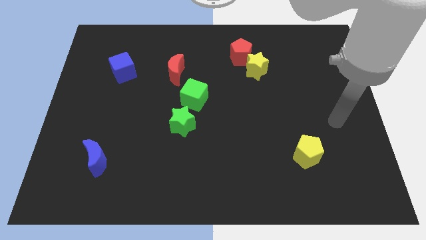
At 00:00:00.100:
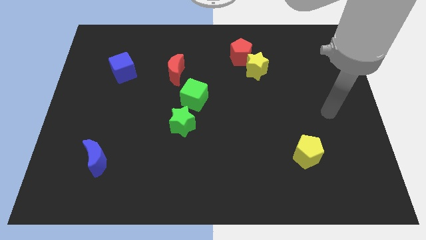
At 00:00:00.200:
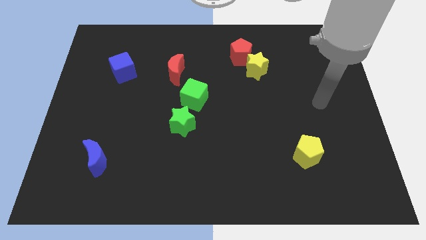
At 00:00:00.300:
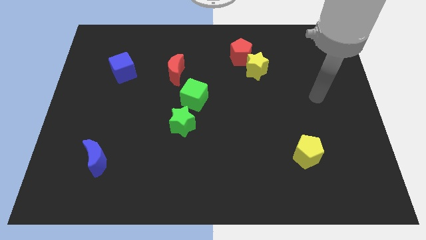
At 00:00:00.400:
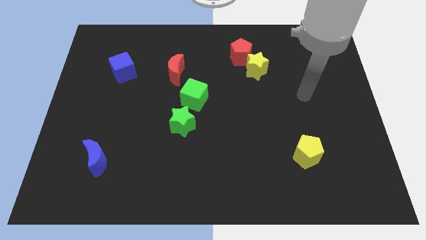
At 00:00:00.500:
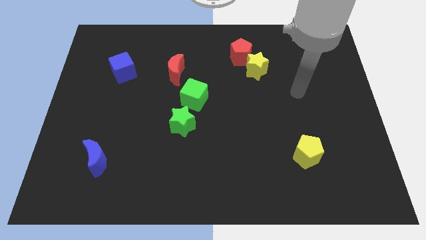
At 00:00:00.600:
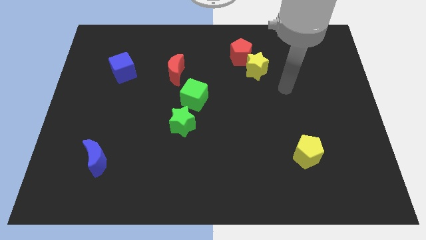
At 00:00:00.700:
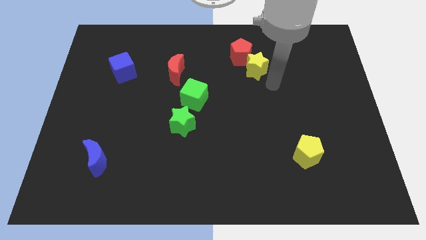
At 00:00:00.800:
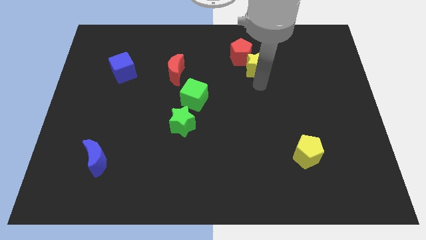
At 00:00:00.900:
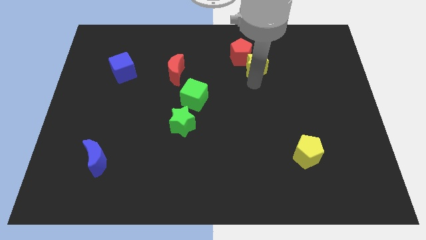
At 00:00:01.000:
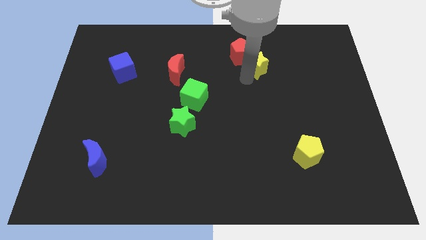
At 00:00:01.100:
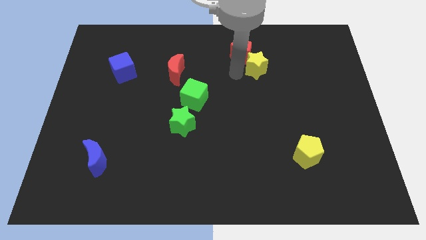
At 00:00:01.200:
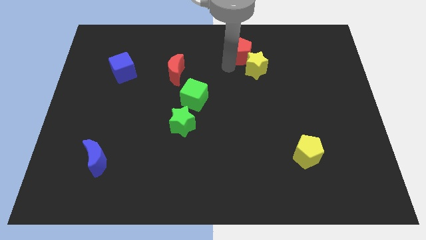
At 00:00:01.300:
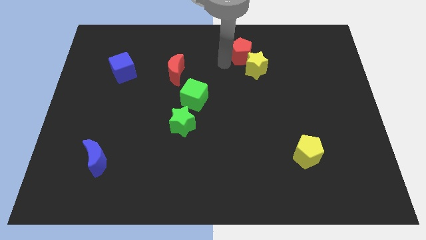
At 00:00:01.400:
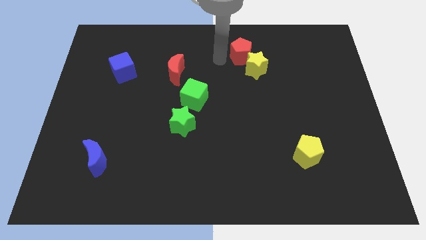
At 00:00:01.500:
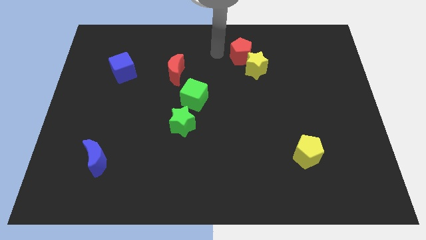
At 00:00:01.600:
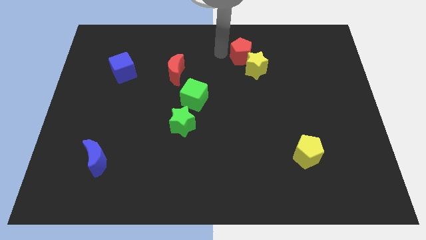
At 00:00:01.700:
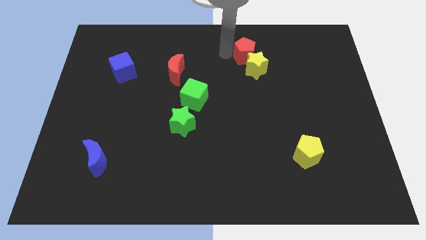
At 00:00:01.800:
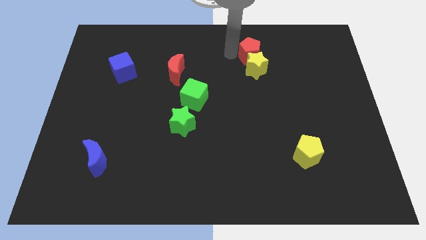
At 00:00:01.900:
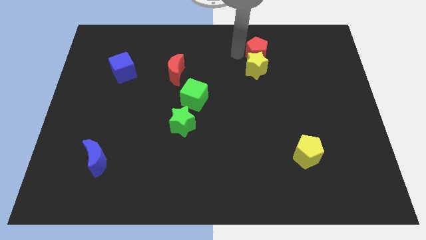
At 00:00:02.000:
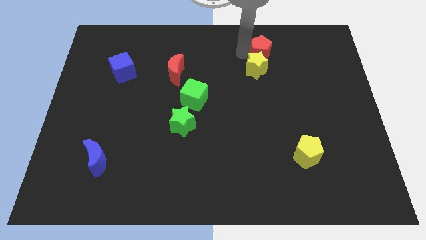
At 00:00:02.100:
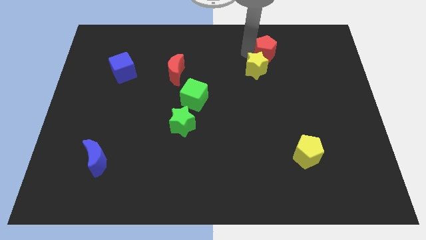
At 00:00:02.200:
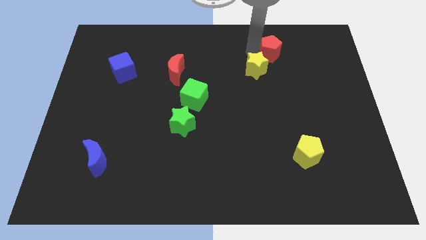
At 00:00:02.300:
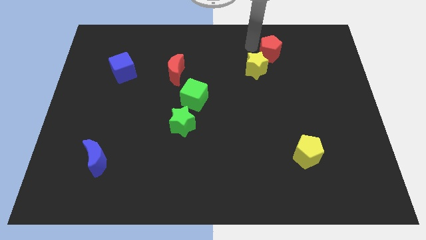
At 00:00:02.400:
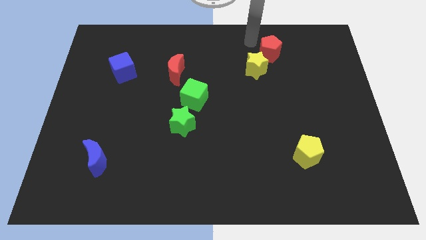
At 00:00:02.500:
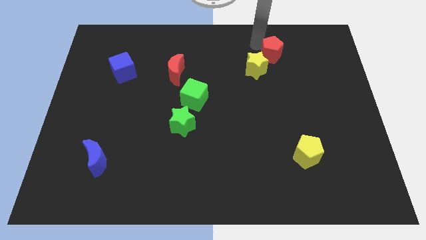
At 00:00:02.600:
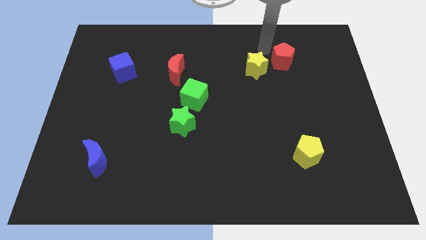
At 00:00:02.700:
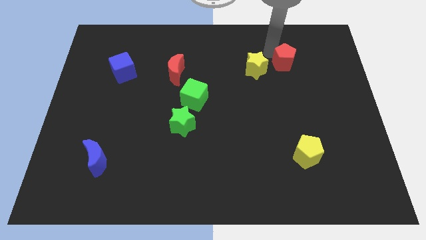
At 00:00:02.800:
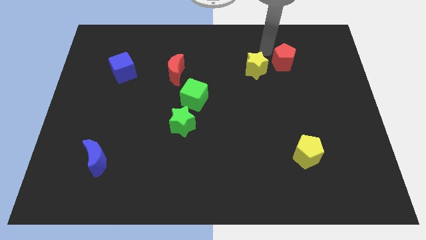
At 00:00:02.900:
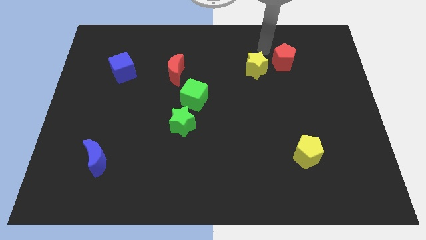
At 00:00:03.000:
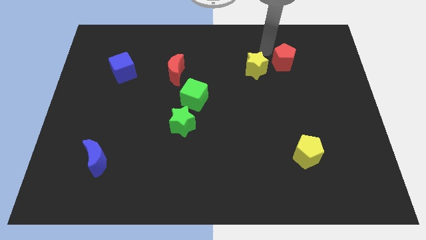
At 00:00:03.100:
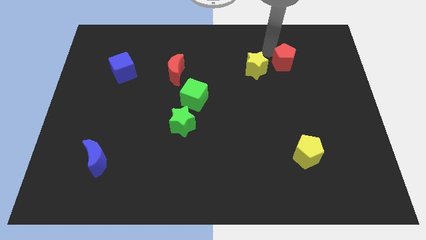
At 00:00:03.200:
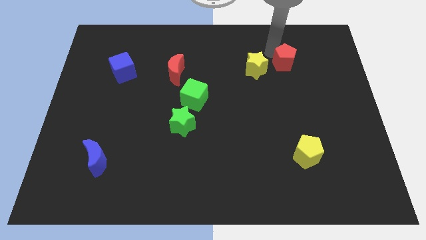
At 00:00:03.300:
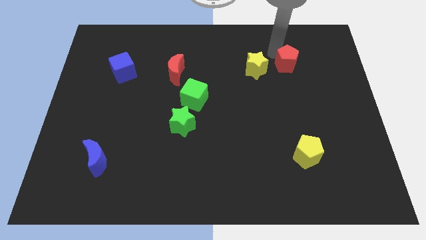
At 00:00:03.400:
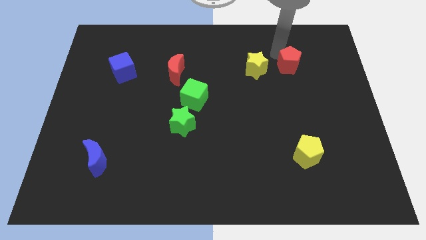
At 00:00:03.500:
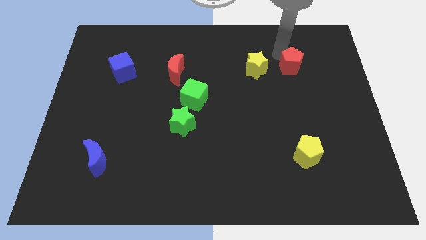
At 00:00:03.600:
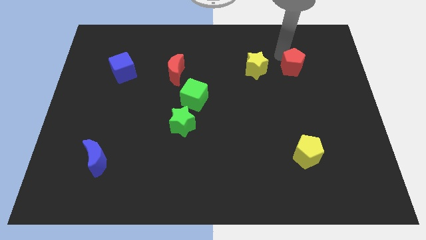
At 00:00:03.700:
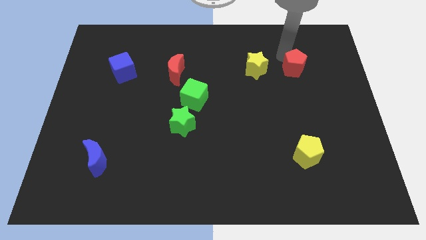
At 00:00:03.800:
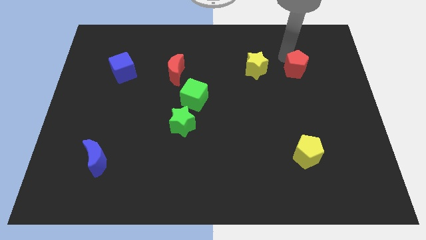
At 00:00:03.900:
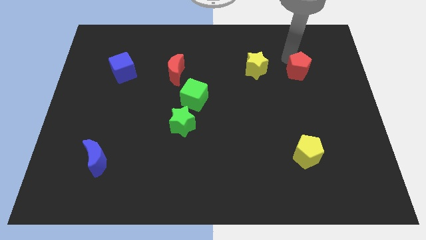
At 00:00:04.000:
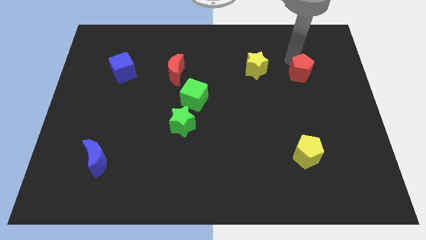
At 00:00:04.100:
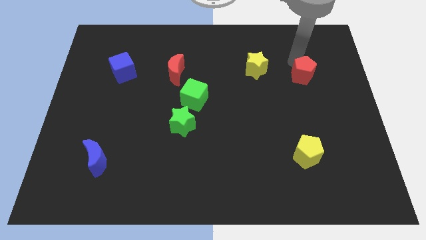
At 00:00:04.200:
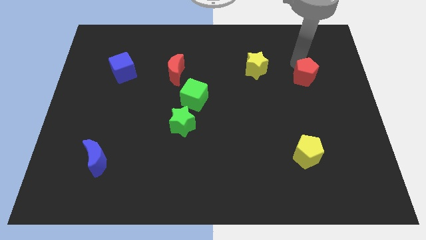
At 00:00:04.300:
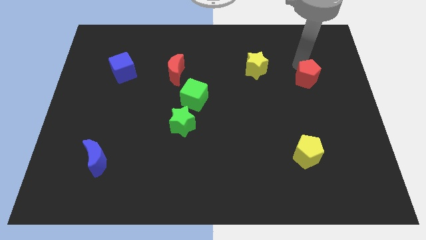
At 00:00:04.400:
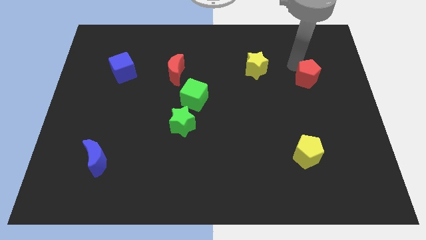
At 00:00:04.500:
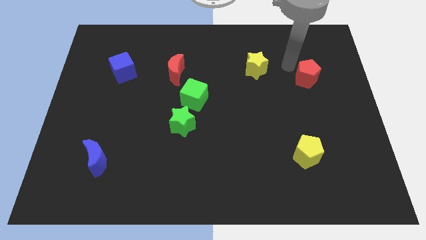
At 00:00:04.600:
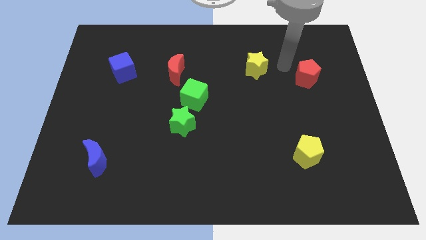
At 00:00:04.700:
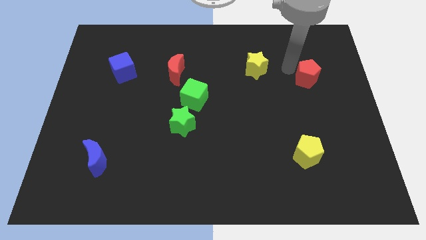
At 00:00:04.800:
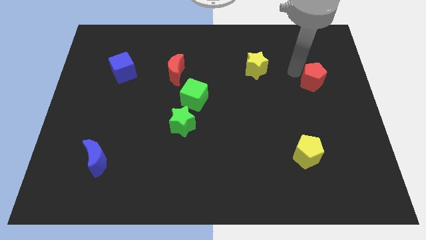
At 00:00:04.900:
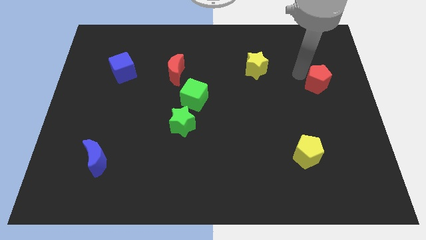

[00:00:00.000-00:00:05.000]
move the red pentagon to the right side

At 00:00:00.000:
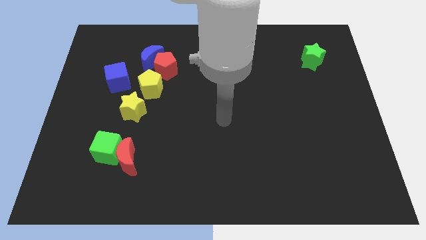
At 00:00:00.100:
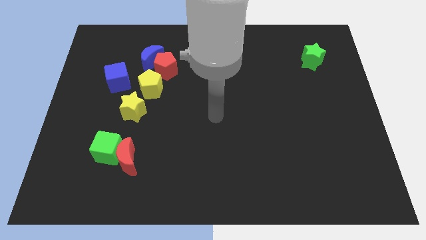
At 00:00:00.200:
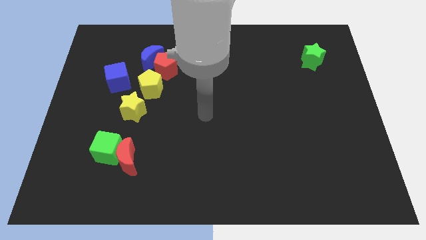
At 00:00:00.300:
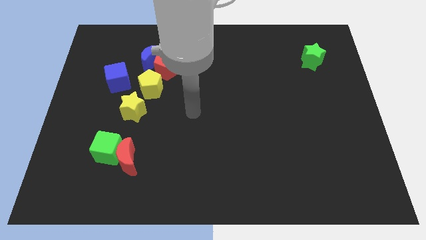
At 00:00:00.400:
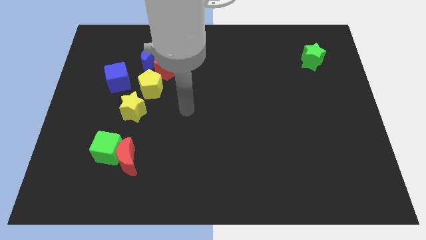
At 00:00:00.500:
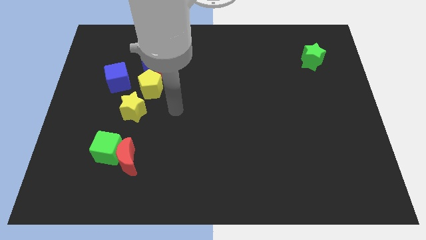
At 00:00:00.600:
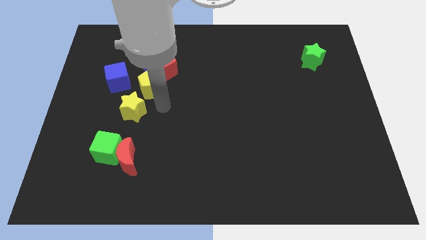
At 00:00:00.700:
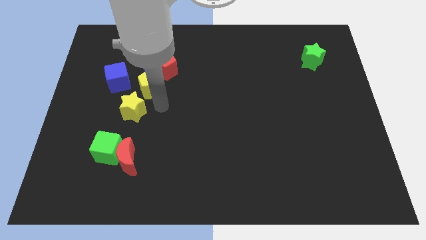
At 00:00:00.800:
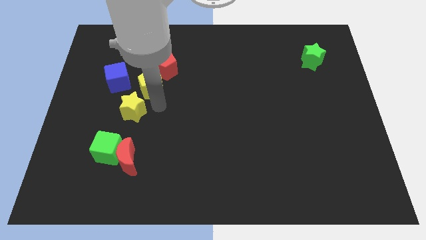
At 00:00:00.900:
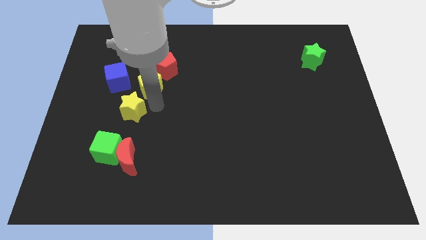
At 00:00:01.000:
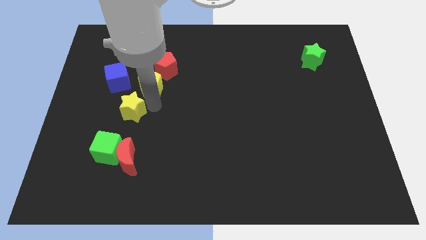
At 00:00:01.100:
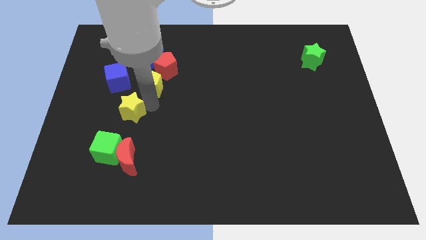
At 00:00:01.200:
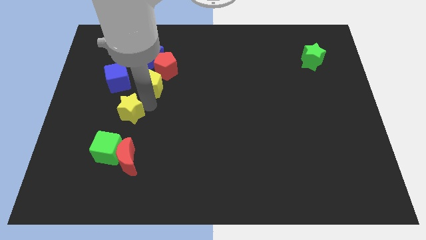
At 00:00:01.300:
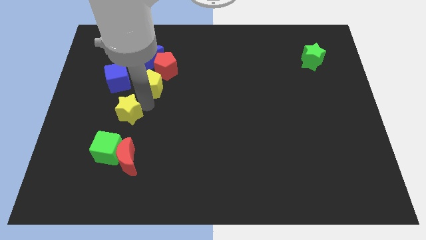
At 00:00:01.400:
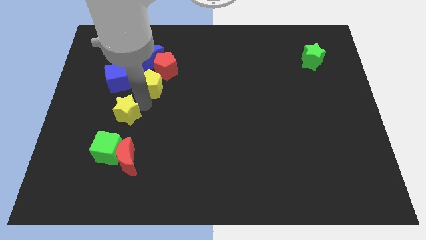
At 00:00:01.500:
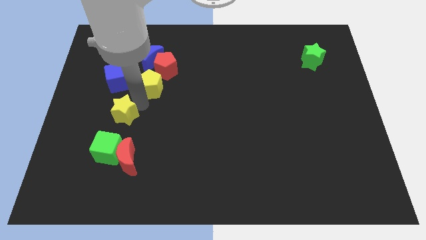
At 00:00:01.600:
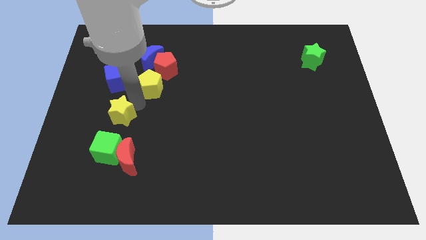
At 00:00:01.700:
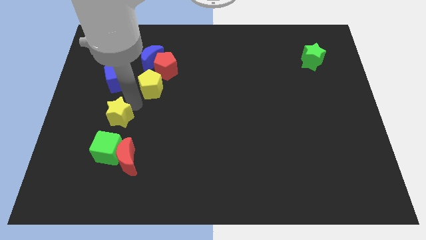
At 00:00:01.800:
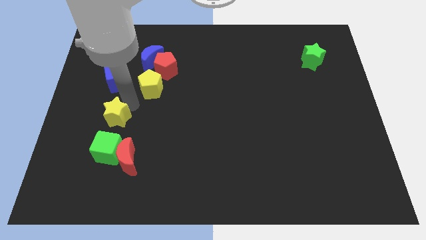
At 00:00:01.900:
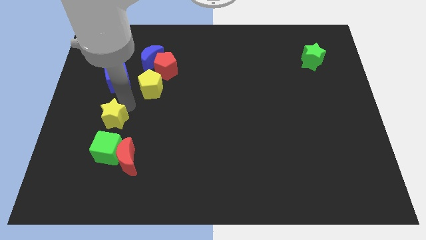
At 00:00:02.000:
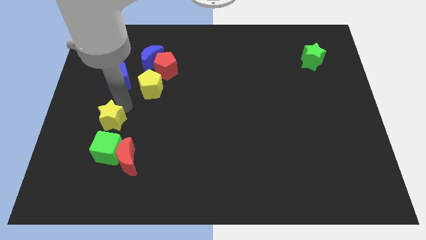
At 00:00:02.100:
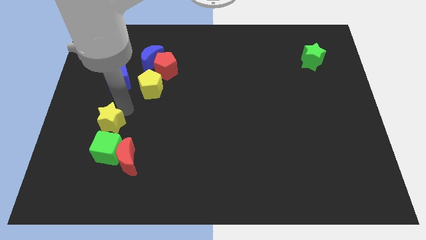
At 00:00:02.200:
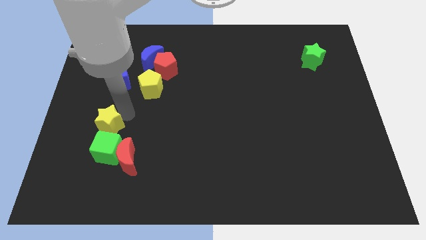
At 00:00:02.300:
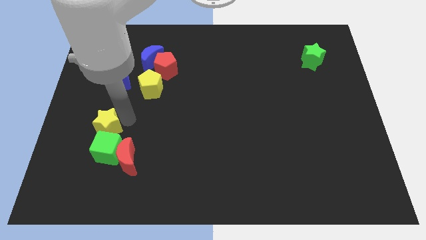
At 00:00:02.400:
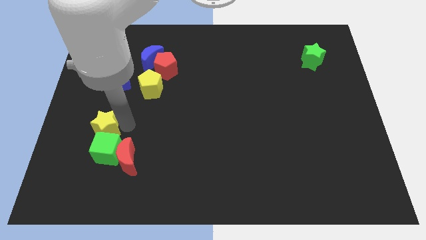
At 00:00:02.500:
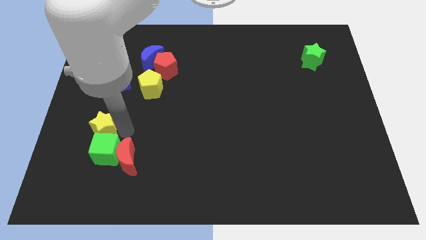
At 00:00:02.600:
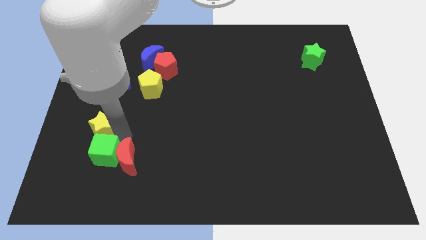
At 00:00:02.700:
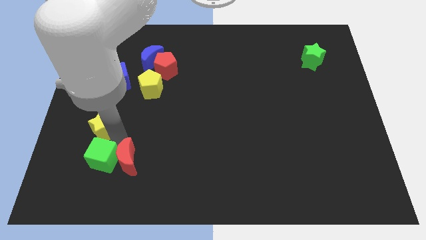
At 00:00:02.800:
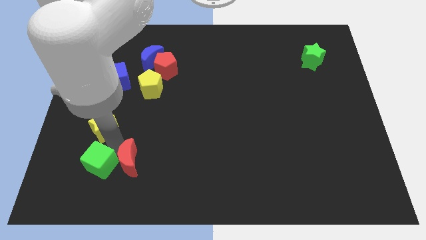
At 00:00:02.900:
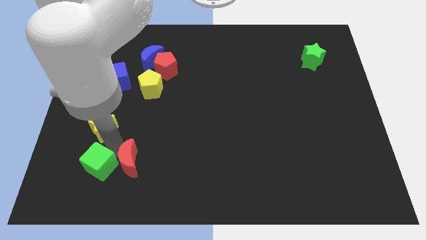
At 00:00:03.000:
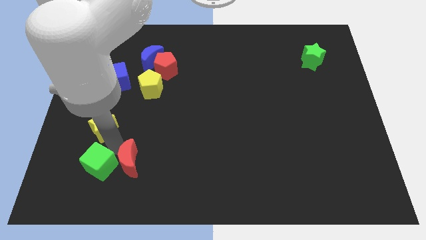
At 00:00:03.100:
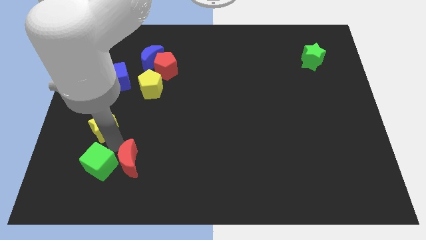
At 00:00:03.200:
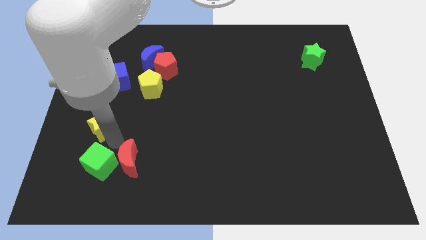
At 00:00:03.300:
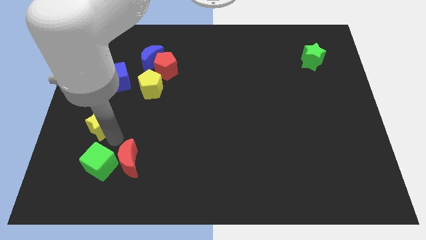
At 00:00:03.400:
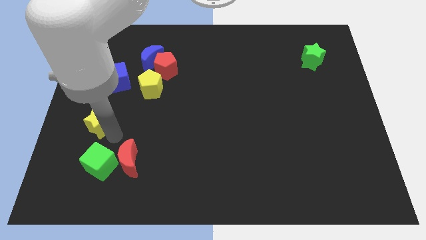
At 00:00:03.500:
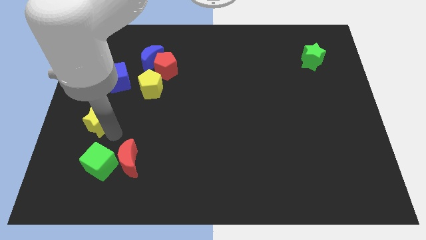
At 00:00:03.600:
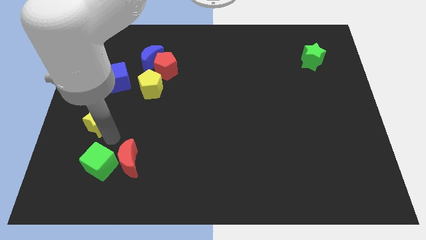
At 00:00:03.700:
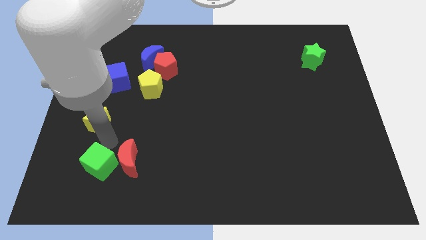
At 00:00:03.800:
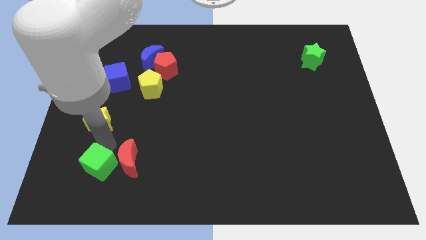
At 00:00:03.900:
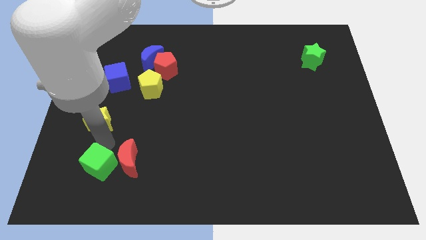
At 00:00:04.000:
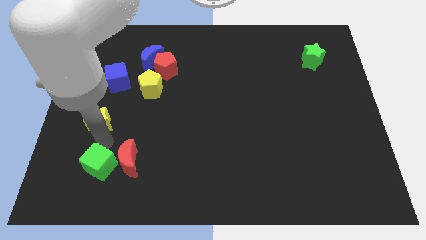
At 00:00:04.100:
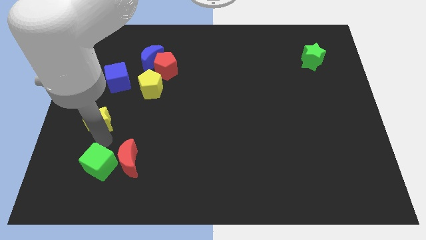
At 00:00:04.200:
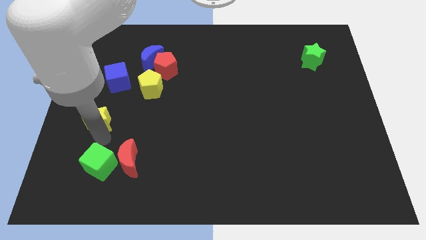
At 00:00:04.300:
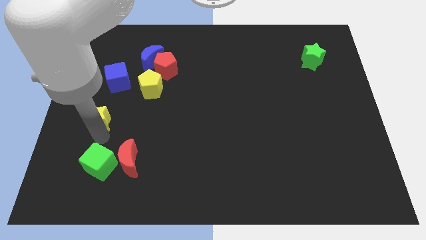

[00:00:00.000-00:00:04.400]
push the yellow star to the center left
